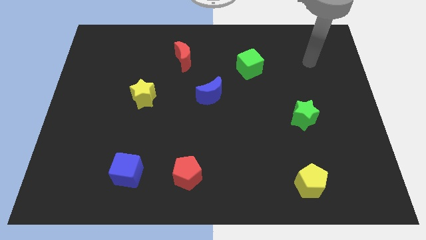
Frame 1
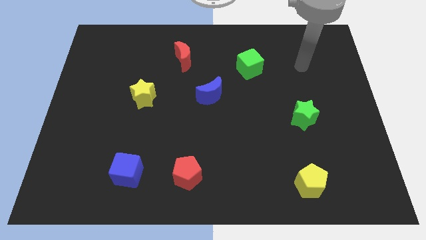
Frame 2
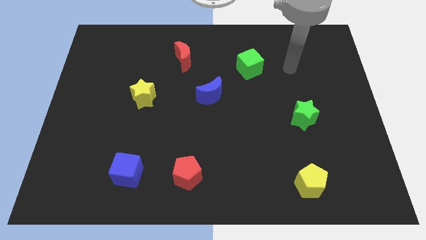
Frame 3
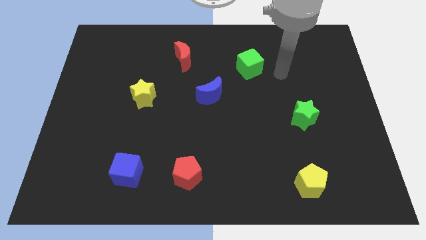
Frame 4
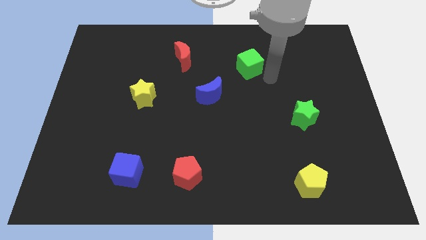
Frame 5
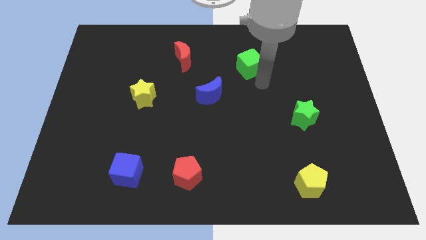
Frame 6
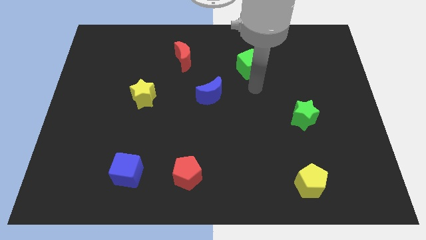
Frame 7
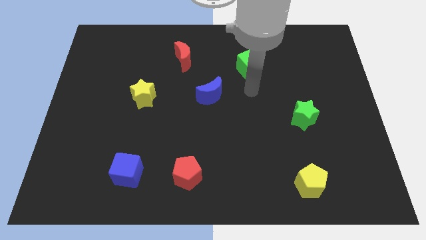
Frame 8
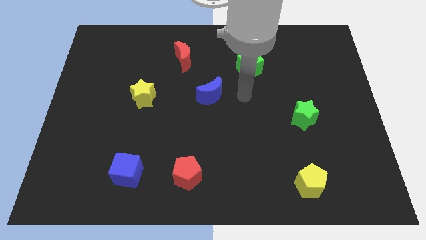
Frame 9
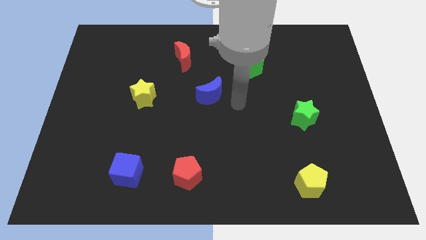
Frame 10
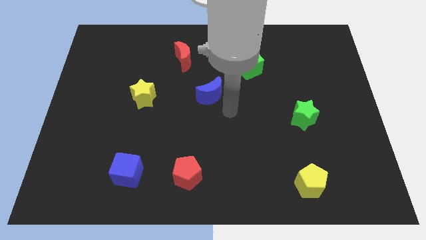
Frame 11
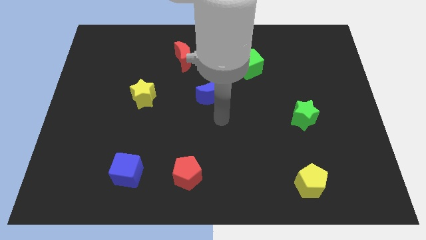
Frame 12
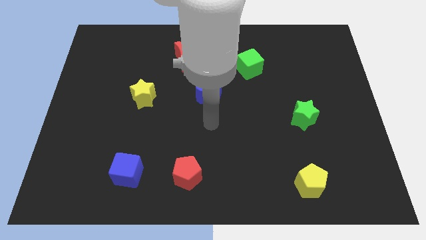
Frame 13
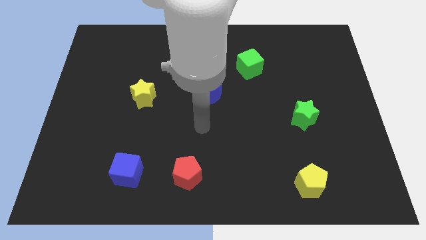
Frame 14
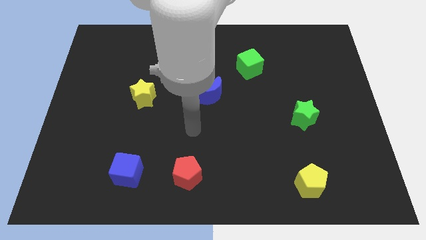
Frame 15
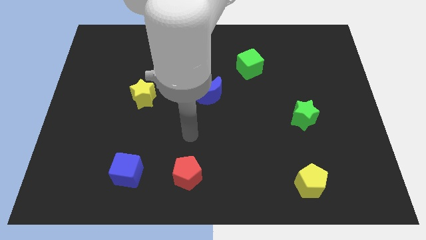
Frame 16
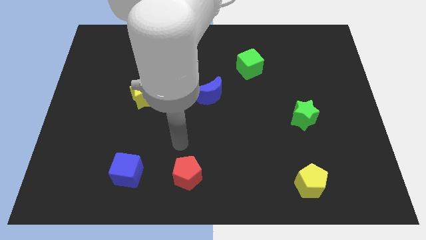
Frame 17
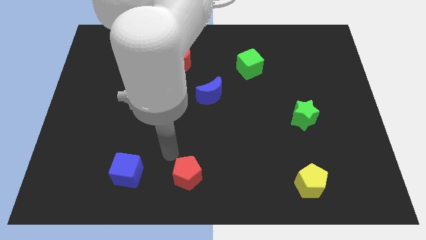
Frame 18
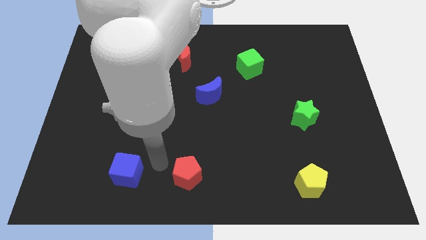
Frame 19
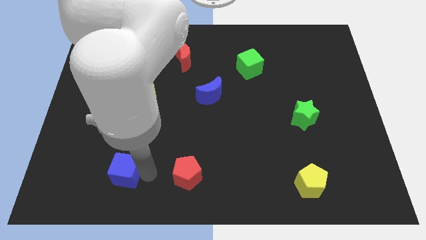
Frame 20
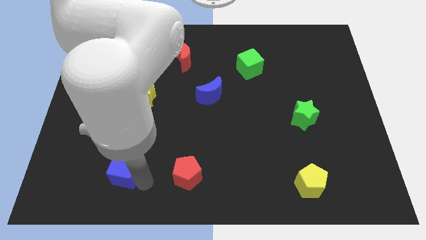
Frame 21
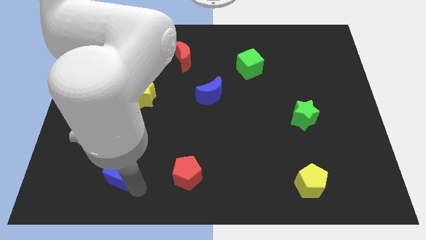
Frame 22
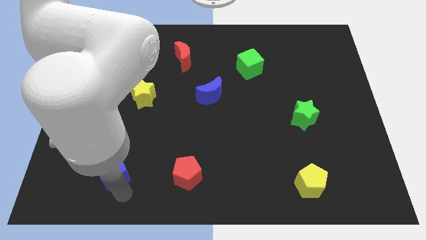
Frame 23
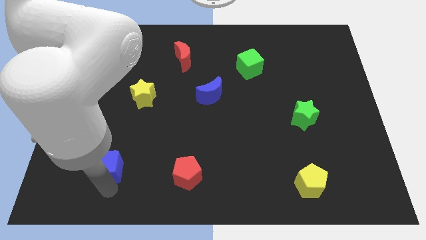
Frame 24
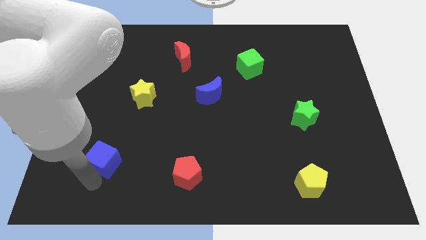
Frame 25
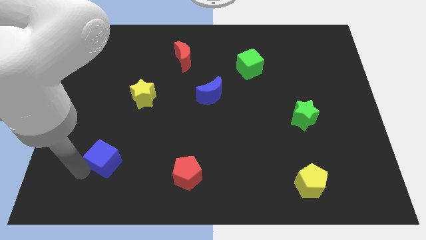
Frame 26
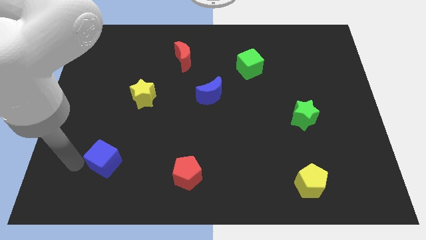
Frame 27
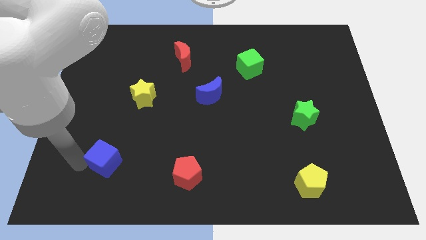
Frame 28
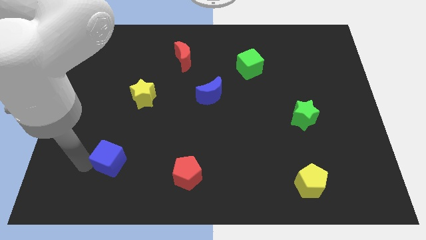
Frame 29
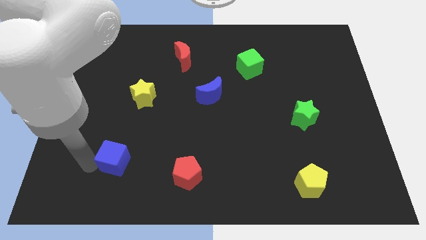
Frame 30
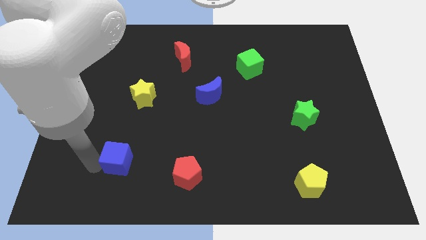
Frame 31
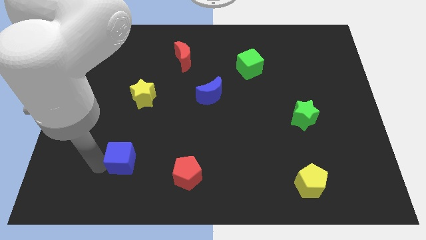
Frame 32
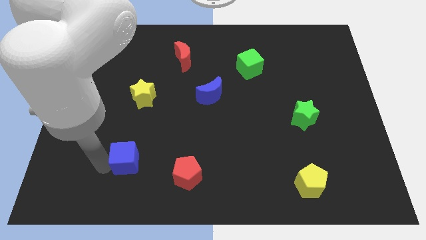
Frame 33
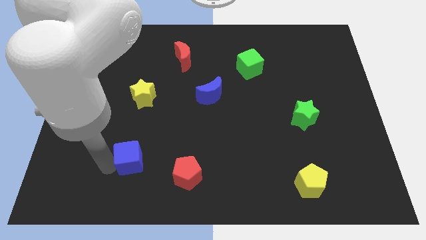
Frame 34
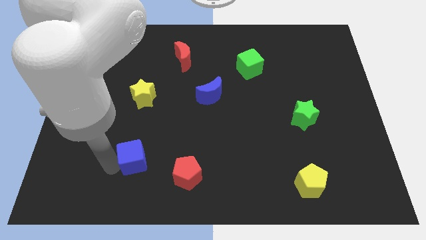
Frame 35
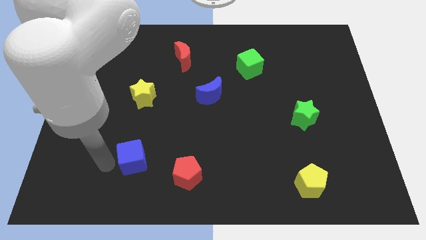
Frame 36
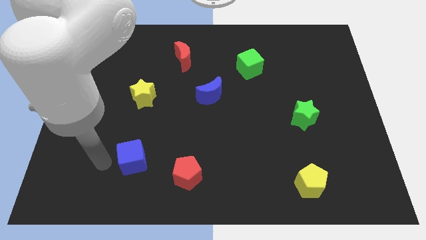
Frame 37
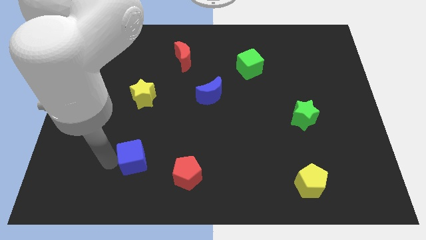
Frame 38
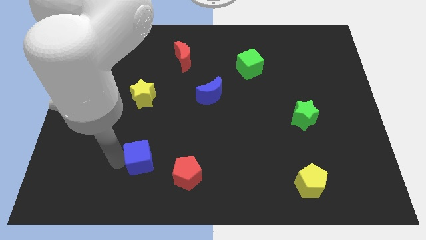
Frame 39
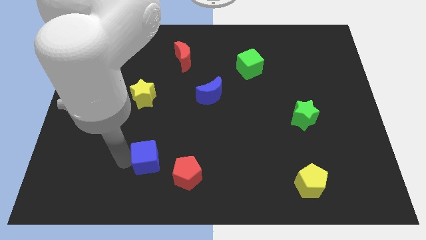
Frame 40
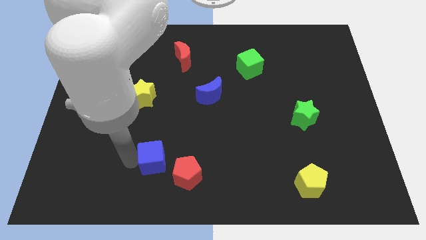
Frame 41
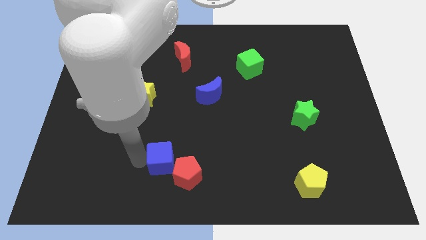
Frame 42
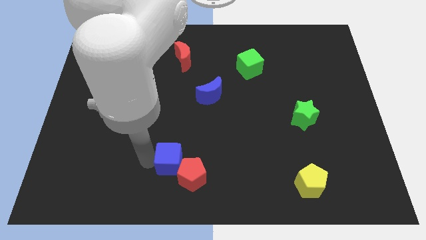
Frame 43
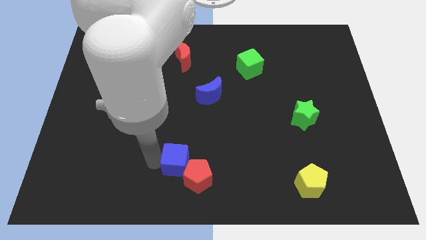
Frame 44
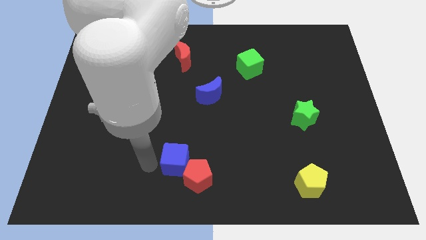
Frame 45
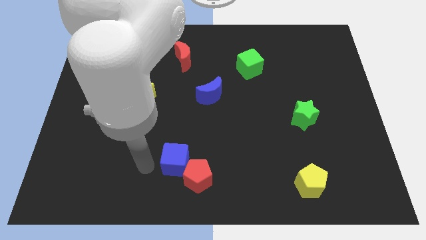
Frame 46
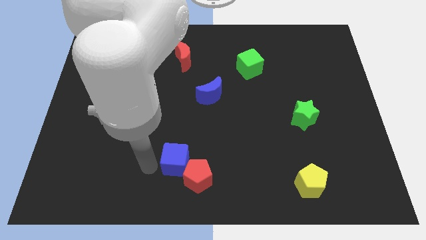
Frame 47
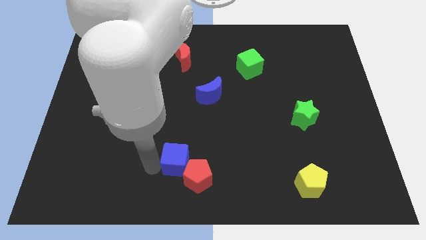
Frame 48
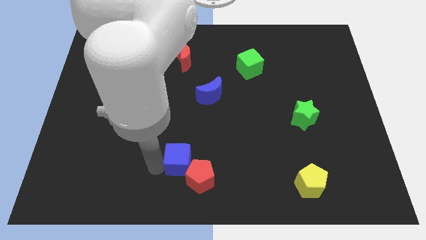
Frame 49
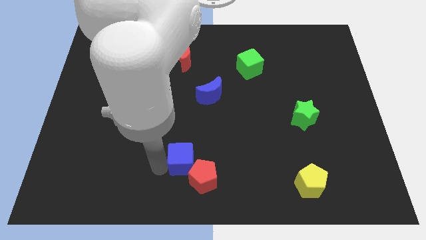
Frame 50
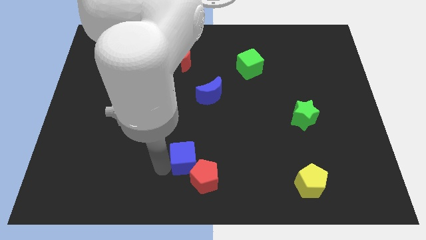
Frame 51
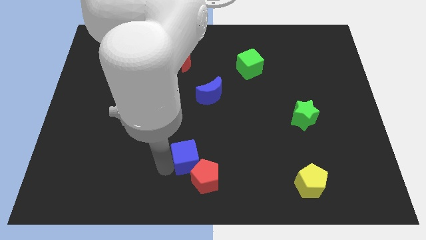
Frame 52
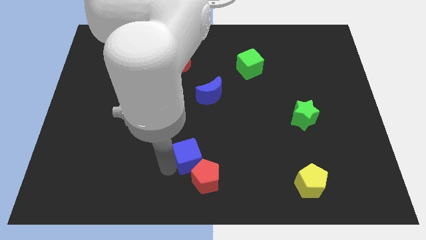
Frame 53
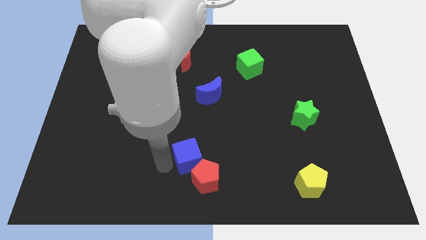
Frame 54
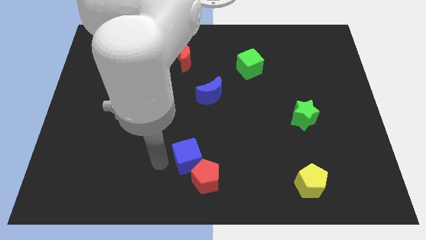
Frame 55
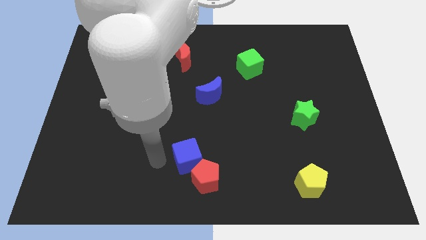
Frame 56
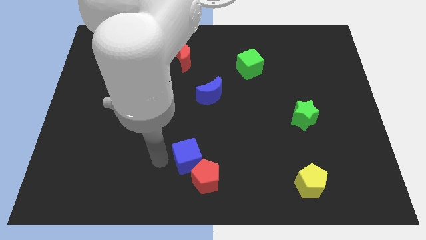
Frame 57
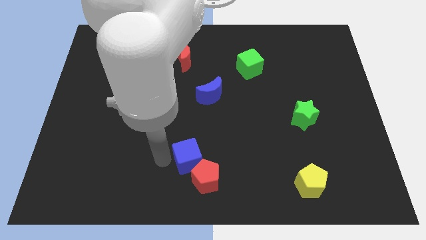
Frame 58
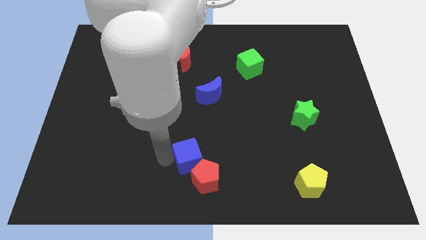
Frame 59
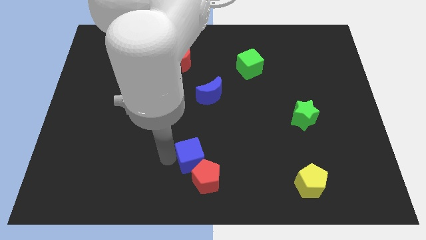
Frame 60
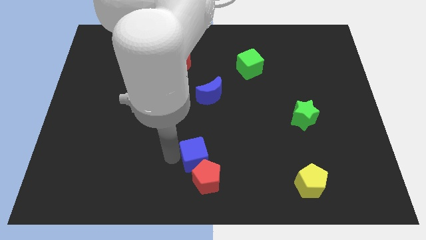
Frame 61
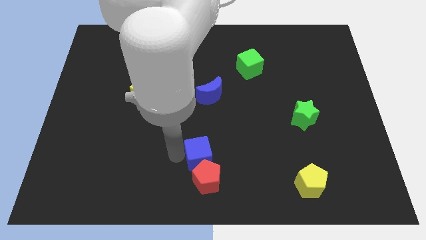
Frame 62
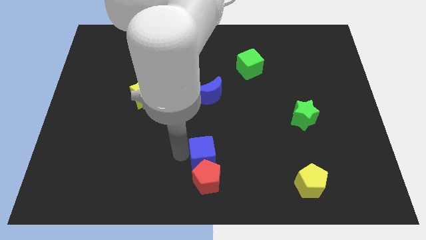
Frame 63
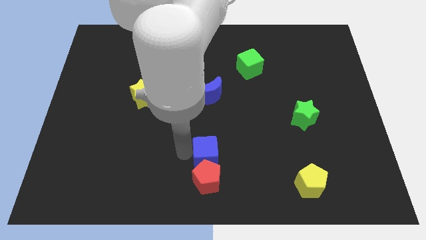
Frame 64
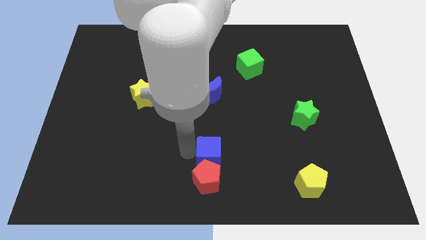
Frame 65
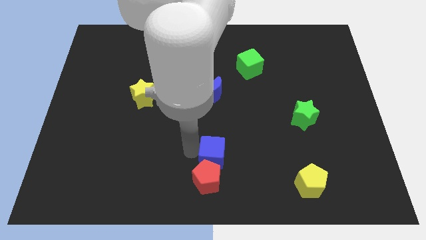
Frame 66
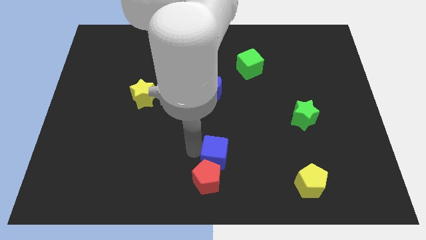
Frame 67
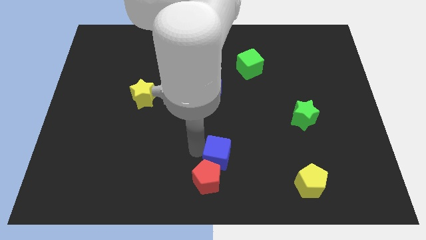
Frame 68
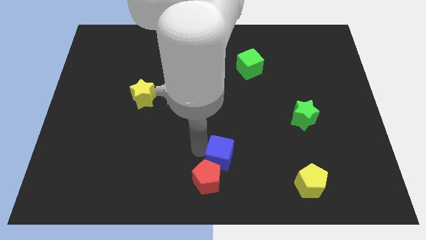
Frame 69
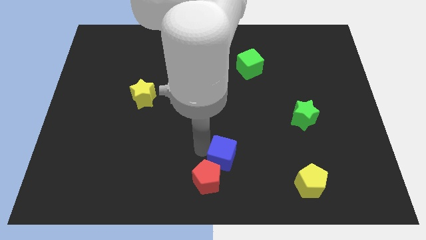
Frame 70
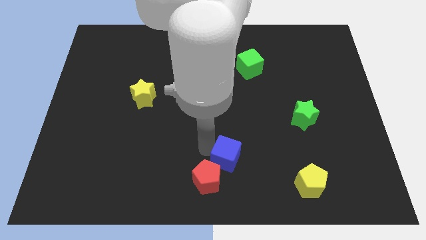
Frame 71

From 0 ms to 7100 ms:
push the blue cube to the right

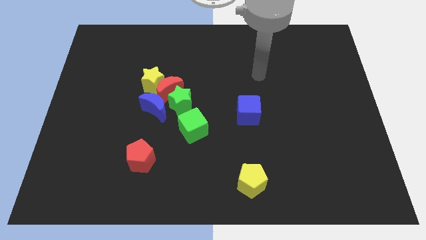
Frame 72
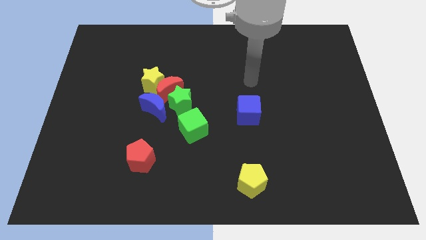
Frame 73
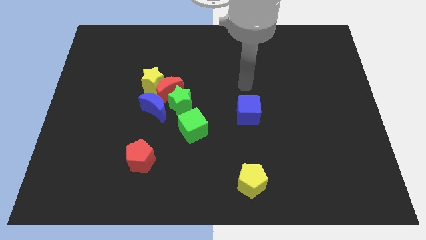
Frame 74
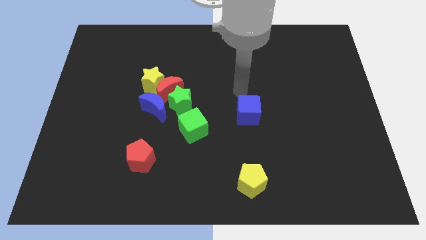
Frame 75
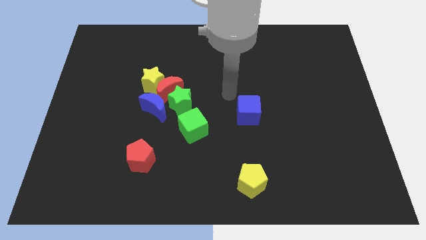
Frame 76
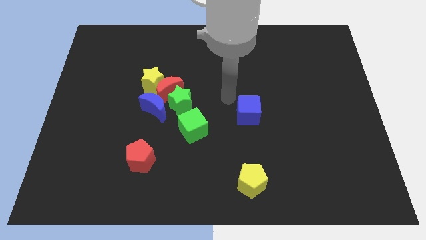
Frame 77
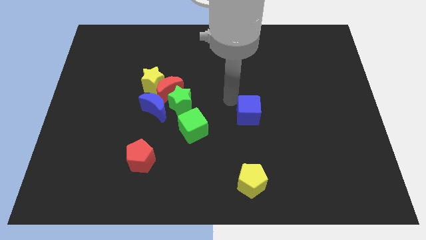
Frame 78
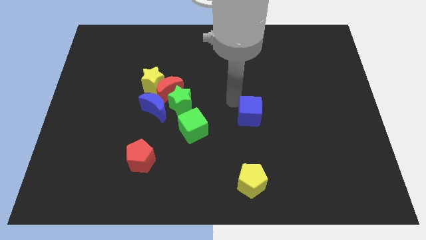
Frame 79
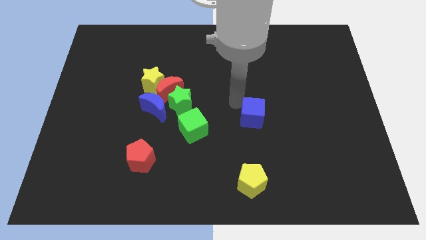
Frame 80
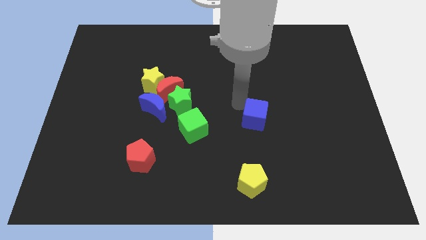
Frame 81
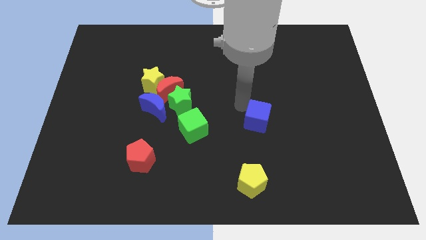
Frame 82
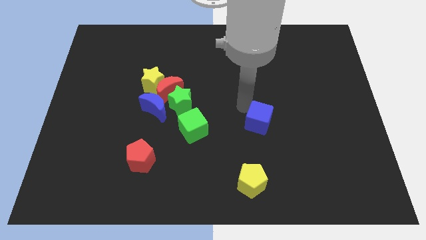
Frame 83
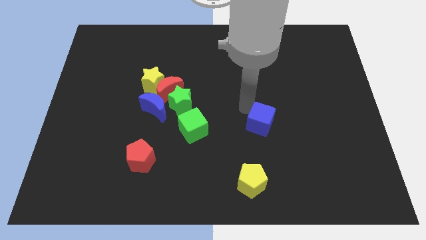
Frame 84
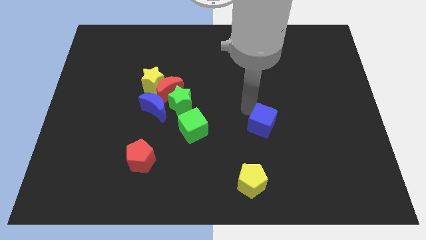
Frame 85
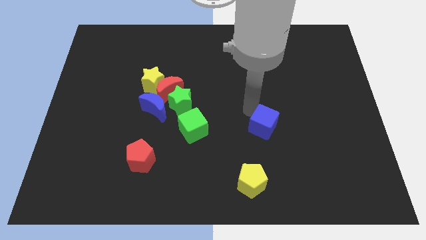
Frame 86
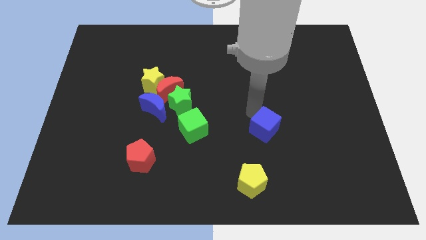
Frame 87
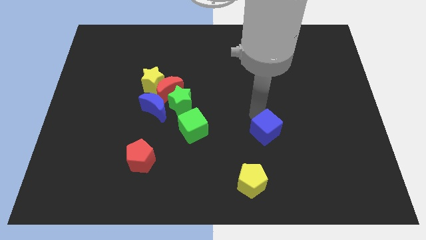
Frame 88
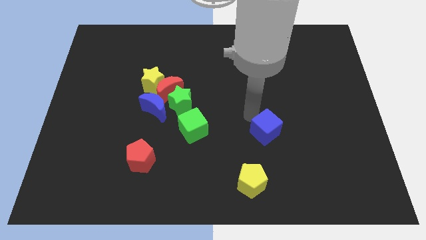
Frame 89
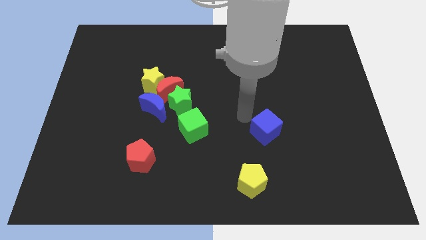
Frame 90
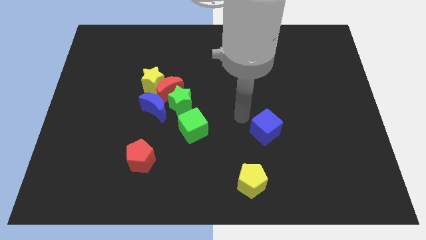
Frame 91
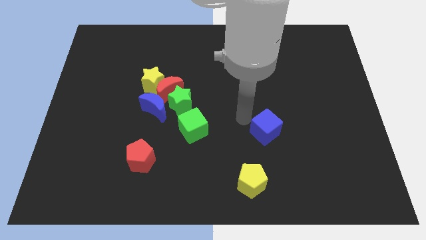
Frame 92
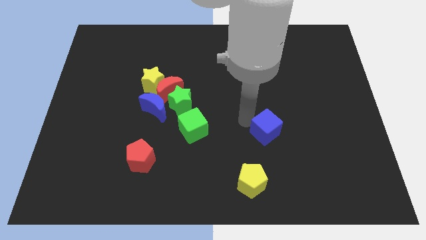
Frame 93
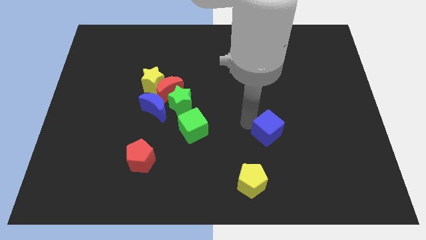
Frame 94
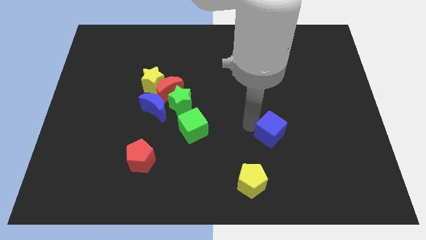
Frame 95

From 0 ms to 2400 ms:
slide the blue cube a bit downwards and to the right diagonally
